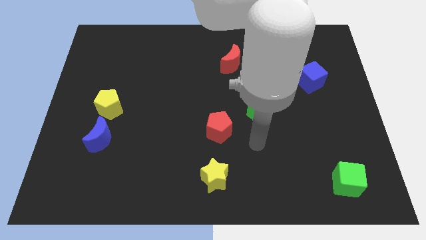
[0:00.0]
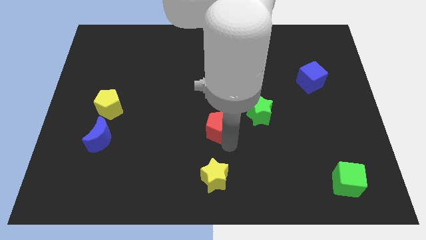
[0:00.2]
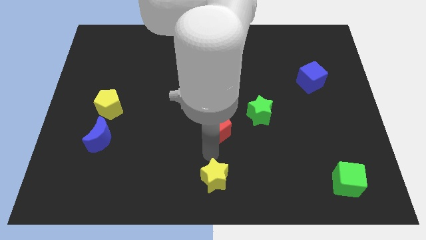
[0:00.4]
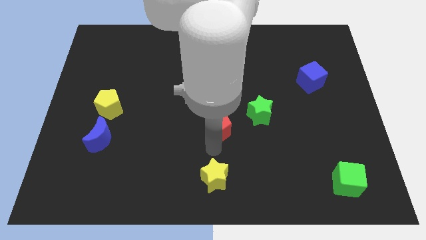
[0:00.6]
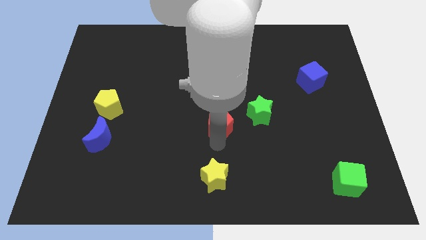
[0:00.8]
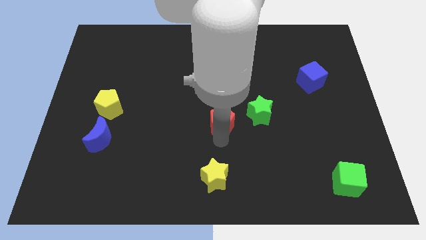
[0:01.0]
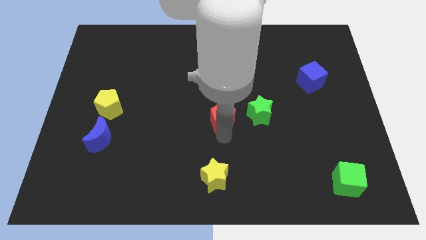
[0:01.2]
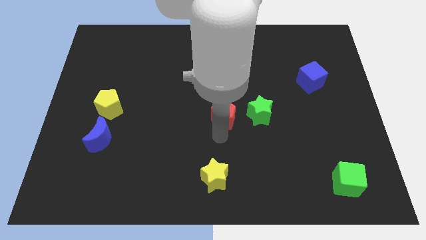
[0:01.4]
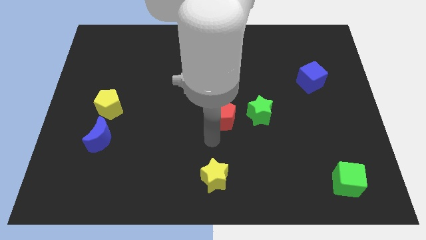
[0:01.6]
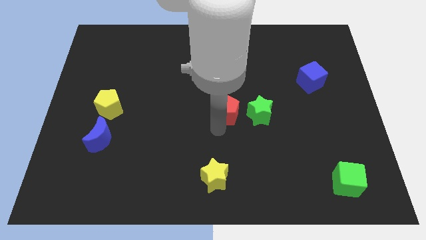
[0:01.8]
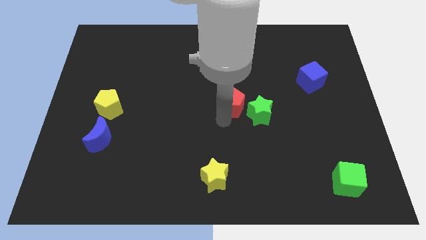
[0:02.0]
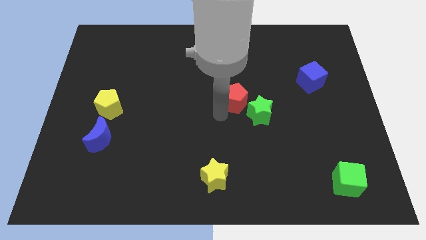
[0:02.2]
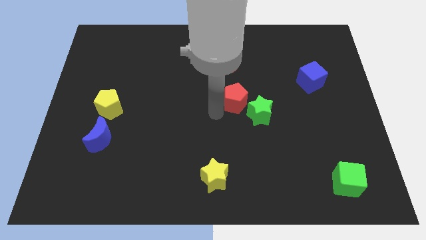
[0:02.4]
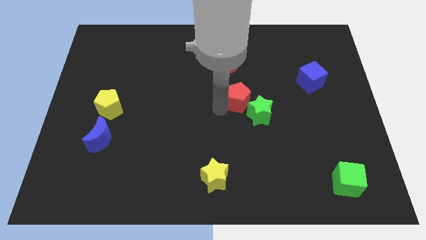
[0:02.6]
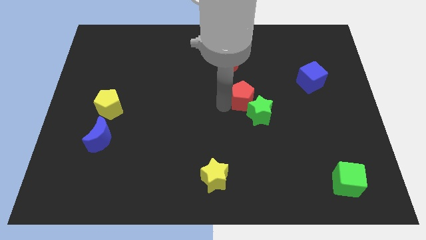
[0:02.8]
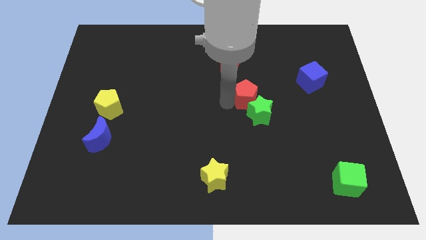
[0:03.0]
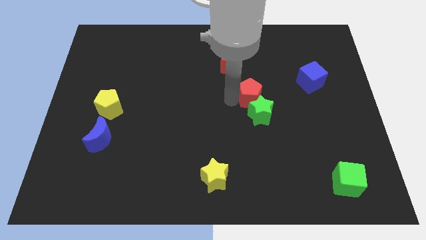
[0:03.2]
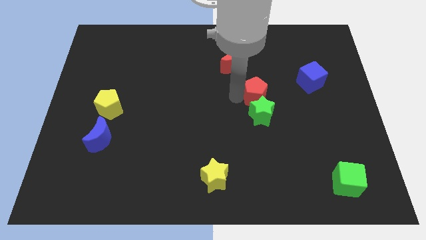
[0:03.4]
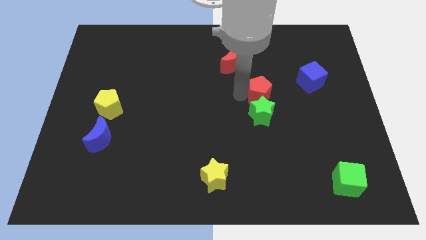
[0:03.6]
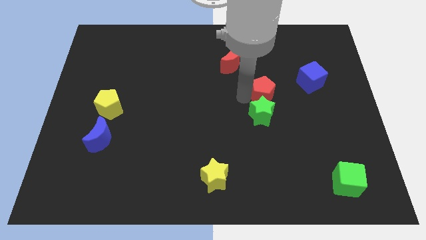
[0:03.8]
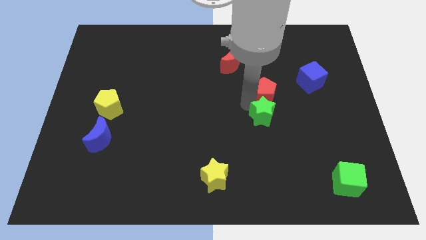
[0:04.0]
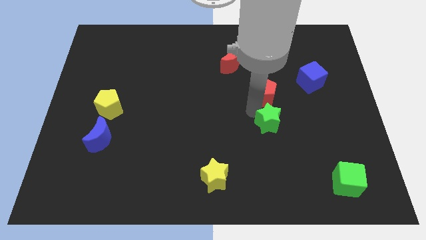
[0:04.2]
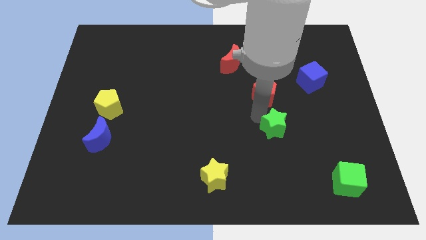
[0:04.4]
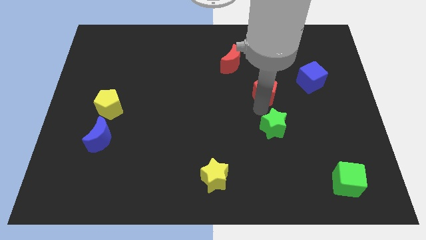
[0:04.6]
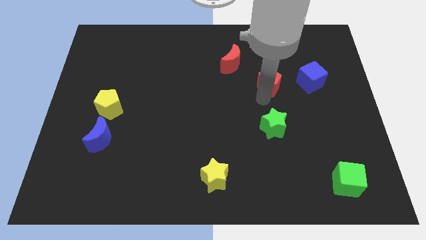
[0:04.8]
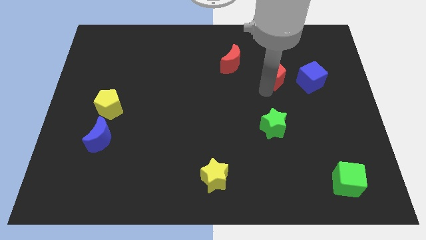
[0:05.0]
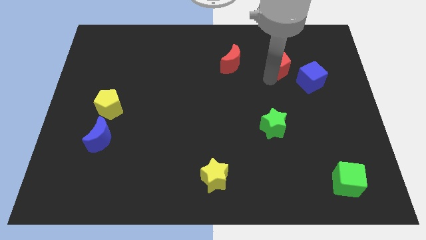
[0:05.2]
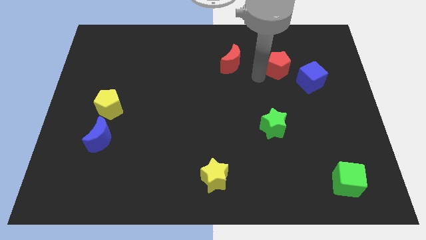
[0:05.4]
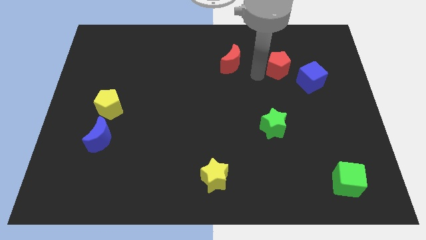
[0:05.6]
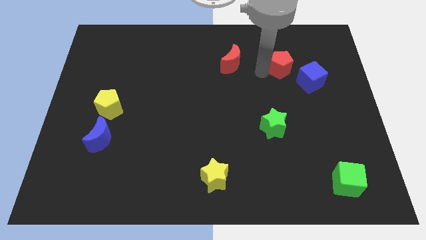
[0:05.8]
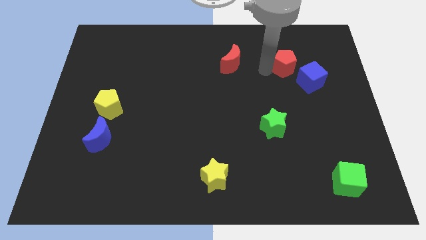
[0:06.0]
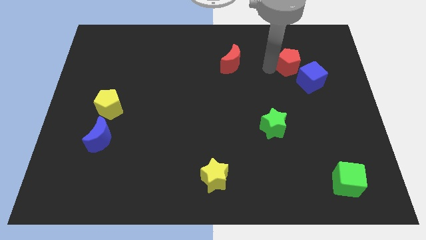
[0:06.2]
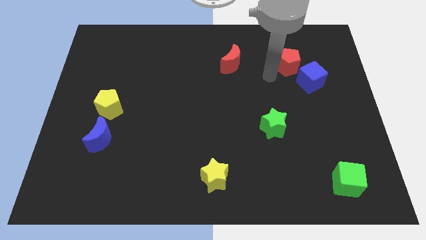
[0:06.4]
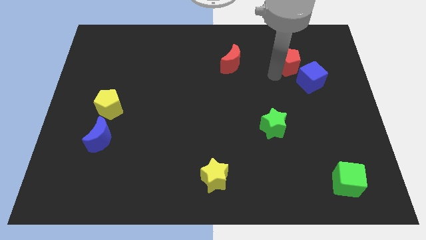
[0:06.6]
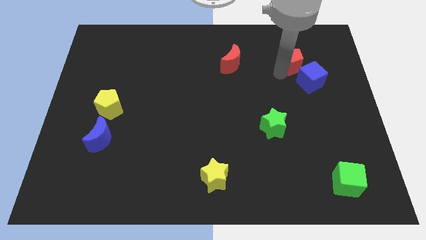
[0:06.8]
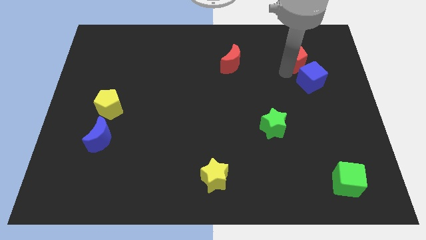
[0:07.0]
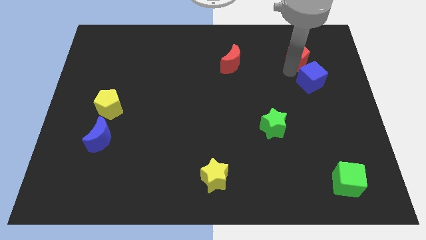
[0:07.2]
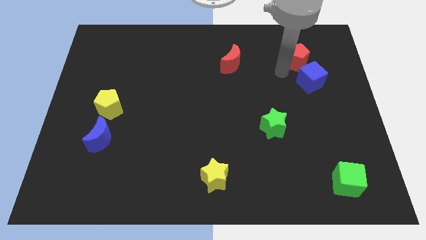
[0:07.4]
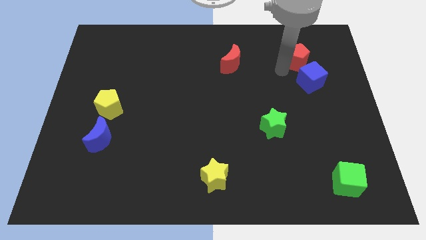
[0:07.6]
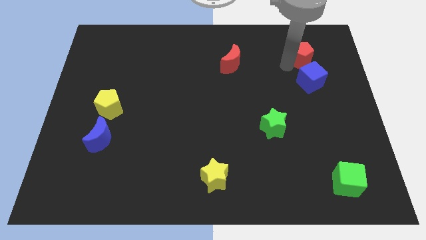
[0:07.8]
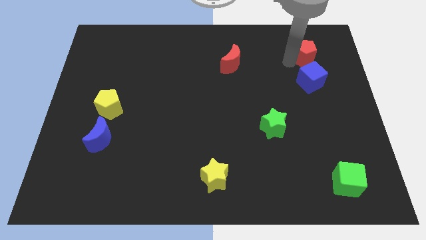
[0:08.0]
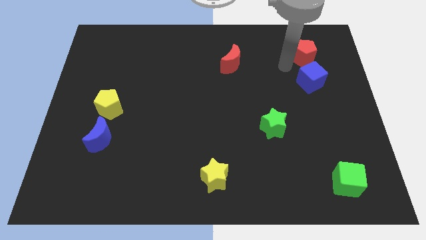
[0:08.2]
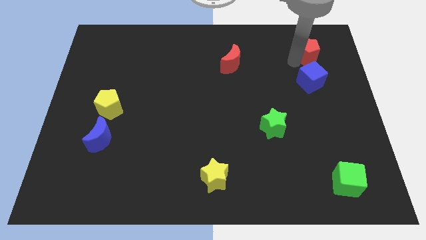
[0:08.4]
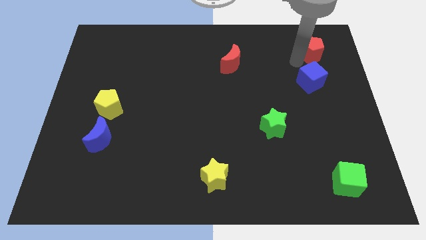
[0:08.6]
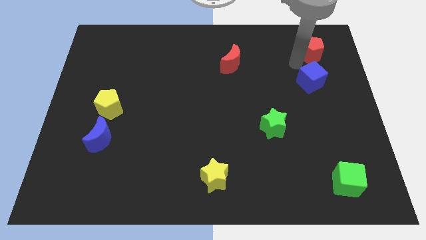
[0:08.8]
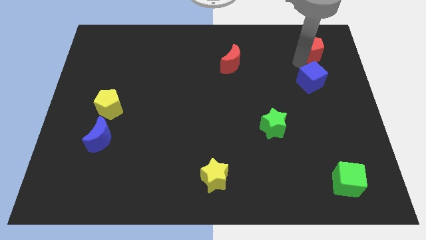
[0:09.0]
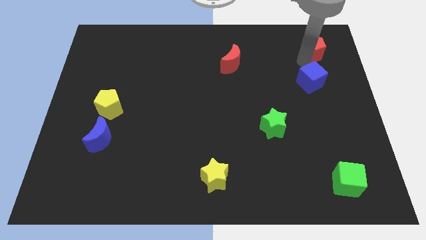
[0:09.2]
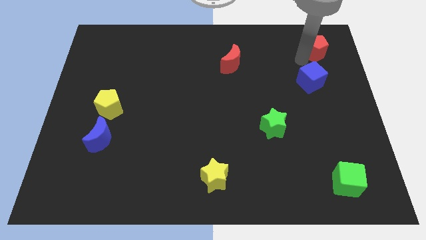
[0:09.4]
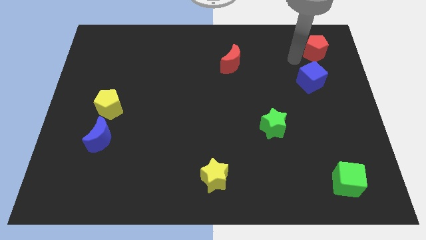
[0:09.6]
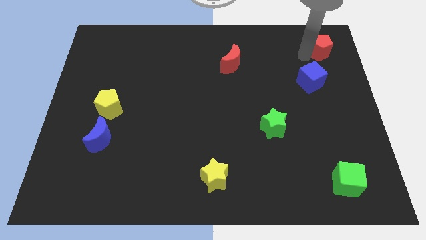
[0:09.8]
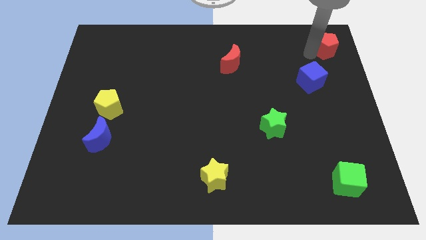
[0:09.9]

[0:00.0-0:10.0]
slide the red pentagon to the upper right corner
